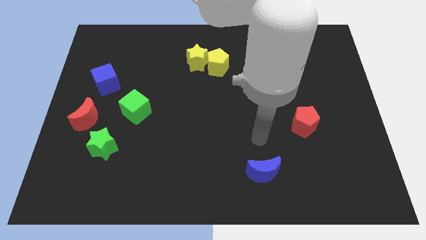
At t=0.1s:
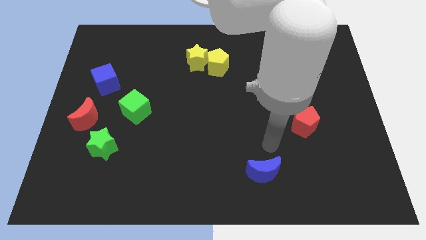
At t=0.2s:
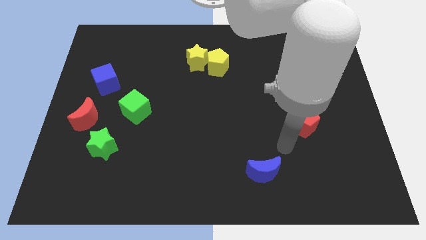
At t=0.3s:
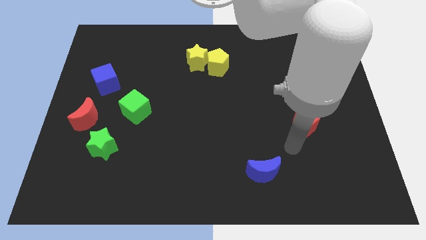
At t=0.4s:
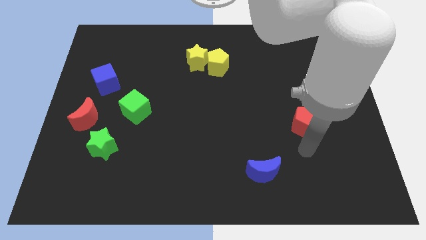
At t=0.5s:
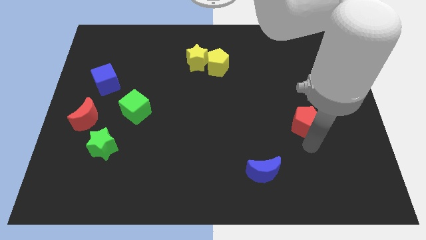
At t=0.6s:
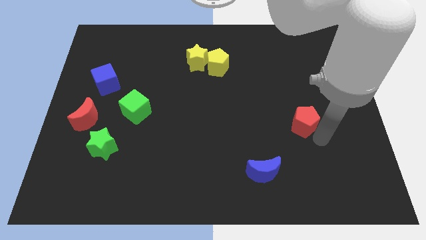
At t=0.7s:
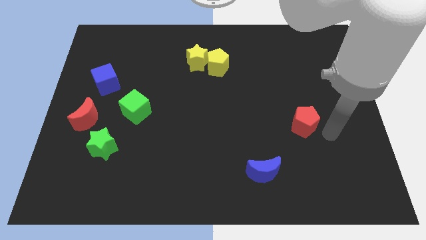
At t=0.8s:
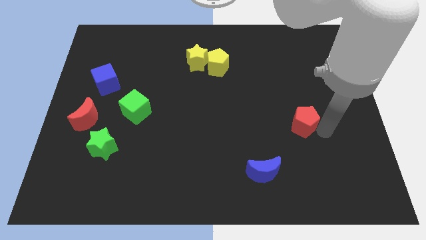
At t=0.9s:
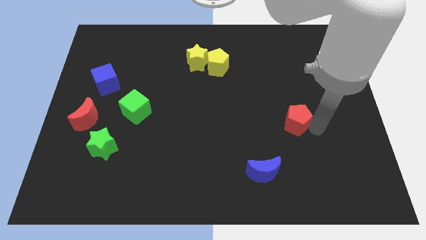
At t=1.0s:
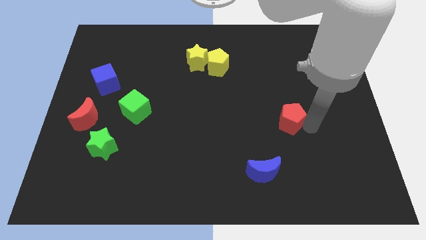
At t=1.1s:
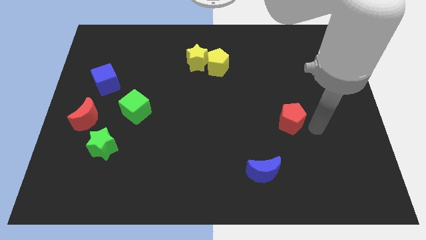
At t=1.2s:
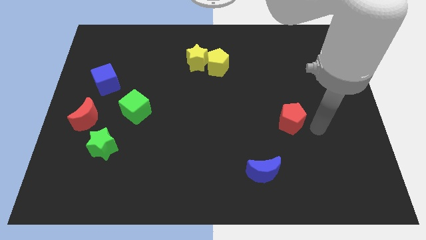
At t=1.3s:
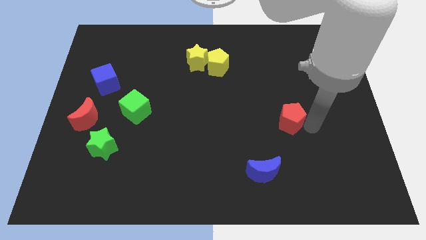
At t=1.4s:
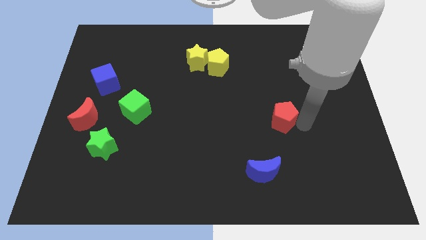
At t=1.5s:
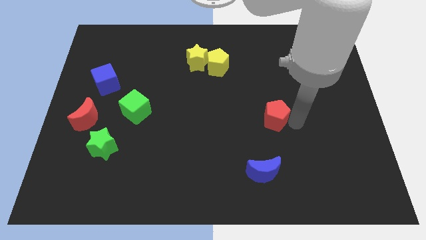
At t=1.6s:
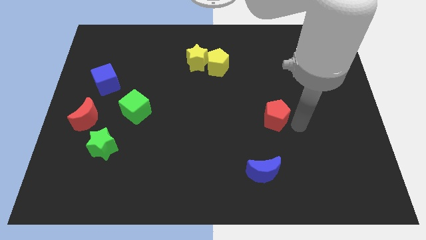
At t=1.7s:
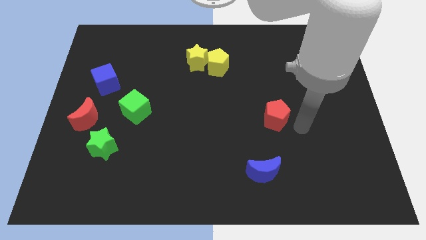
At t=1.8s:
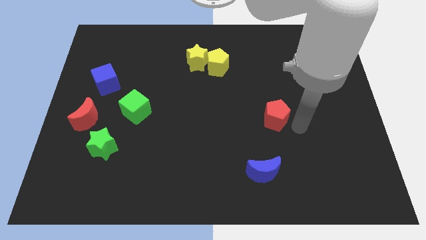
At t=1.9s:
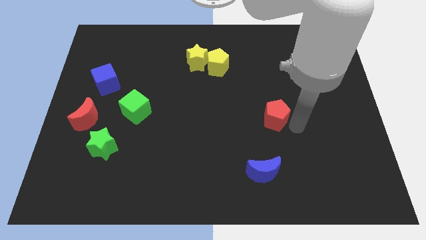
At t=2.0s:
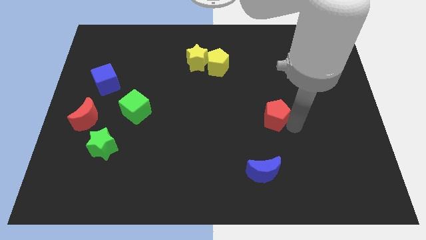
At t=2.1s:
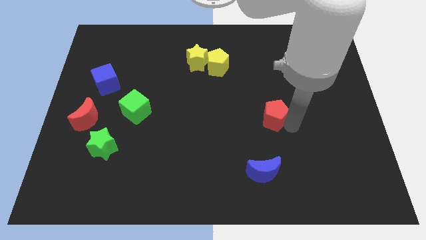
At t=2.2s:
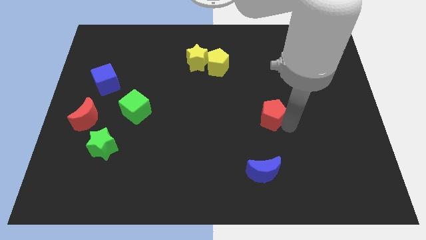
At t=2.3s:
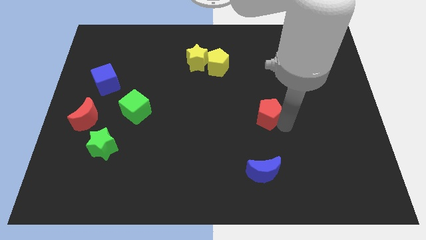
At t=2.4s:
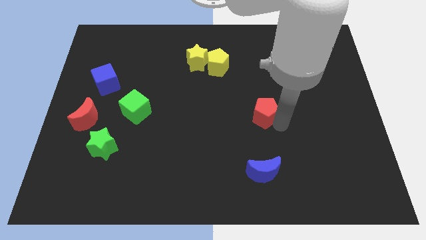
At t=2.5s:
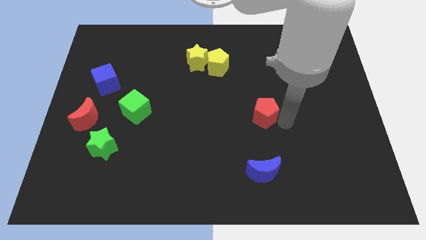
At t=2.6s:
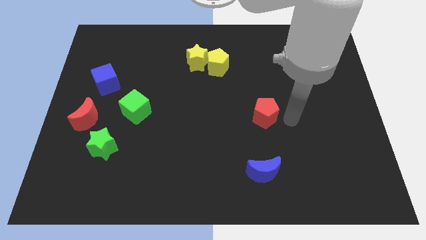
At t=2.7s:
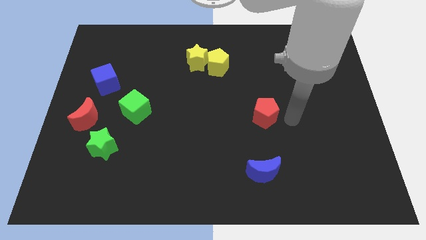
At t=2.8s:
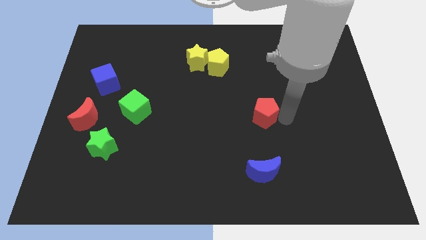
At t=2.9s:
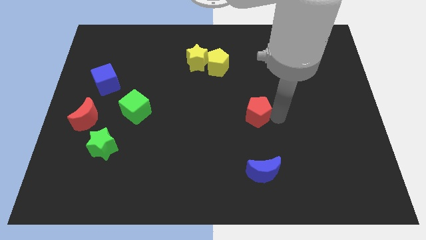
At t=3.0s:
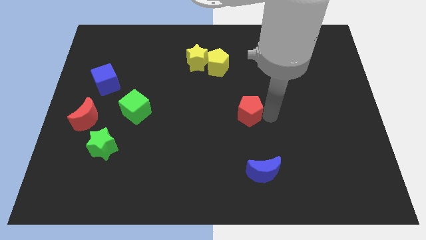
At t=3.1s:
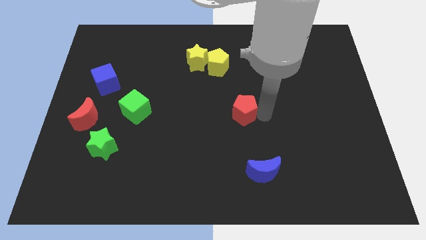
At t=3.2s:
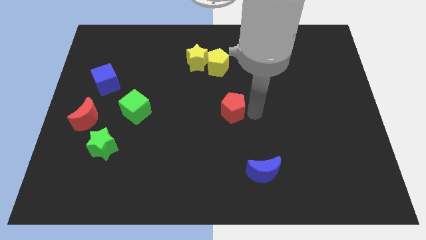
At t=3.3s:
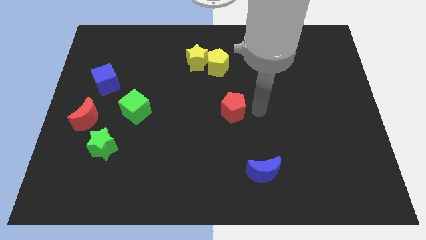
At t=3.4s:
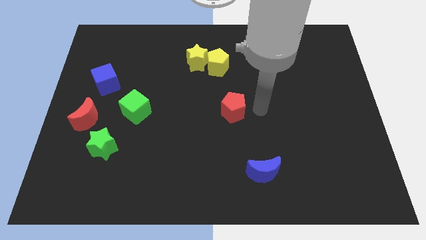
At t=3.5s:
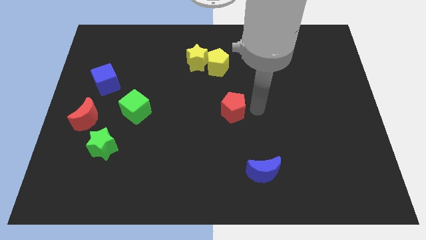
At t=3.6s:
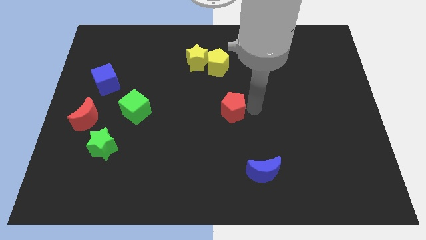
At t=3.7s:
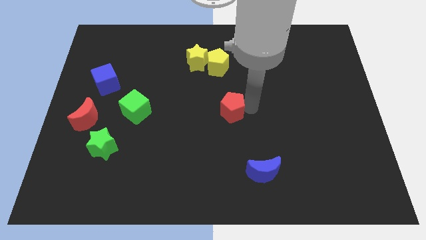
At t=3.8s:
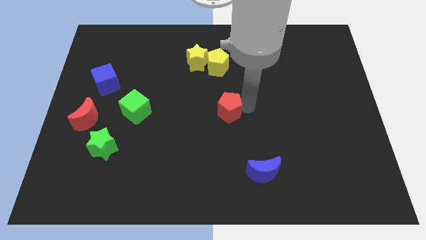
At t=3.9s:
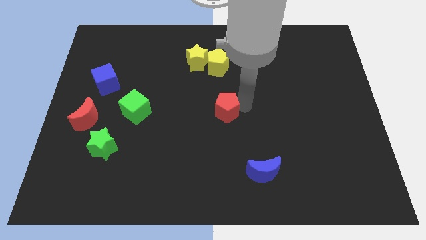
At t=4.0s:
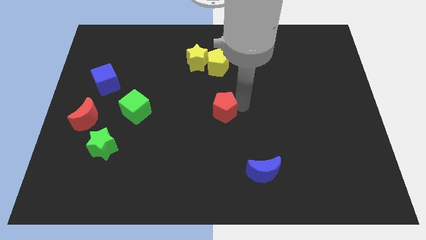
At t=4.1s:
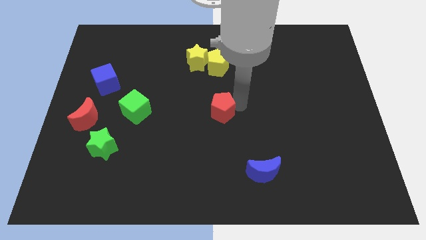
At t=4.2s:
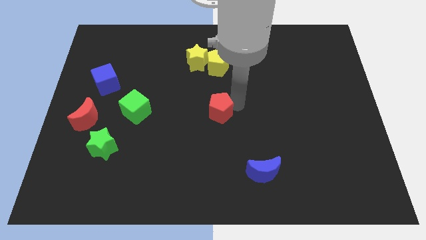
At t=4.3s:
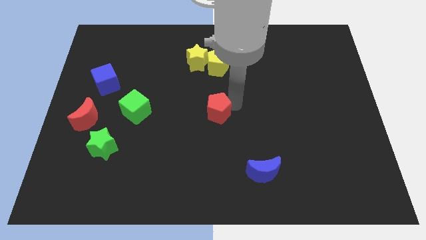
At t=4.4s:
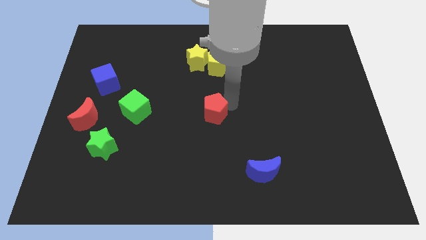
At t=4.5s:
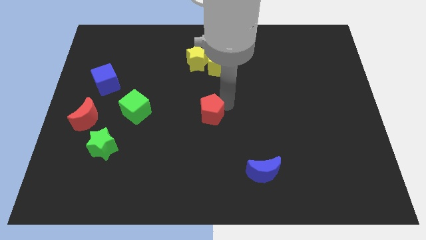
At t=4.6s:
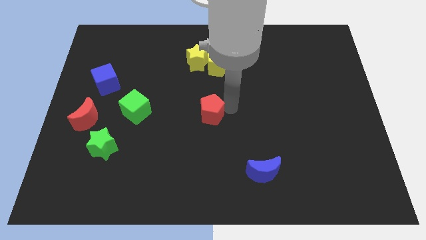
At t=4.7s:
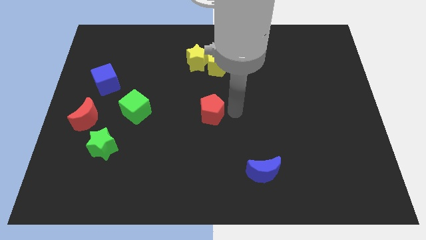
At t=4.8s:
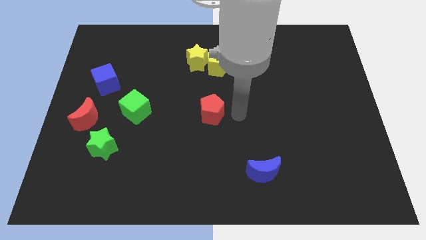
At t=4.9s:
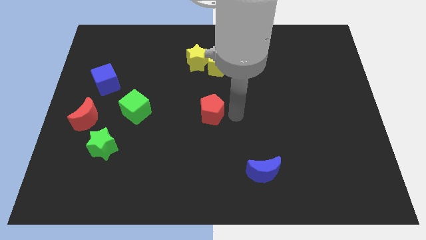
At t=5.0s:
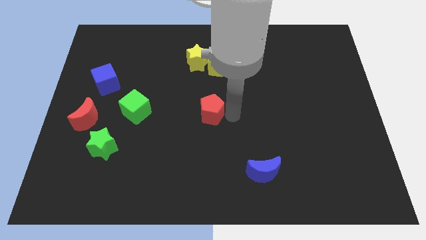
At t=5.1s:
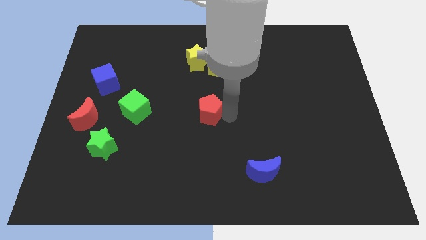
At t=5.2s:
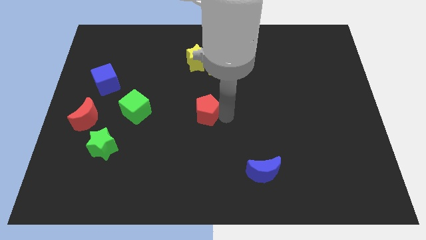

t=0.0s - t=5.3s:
slide the red pentagon to the right side of the green cube

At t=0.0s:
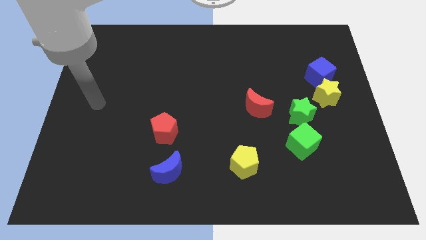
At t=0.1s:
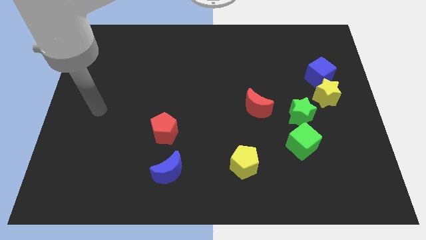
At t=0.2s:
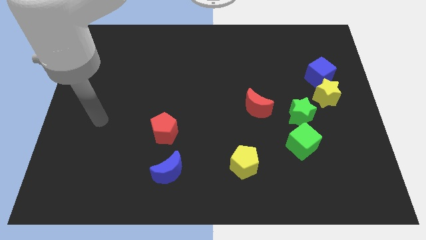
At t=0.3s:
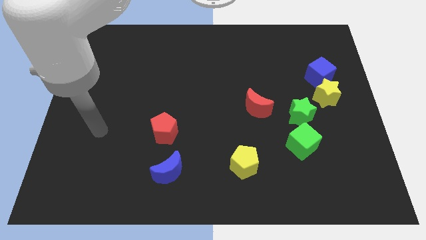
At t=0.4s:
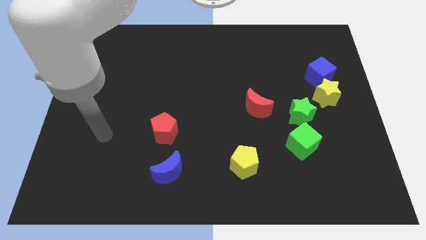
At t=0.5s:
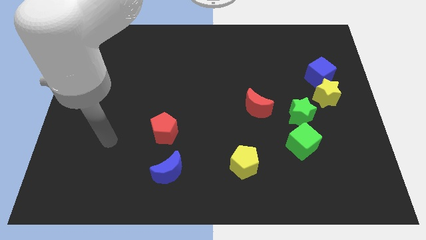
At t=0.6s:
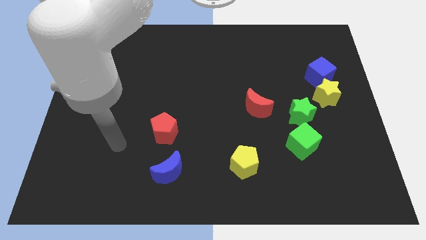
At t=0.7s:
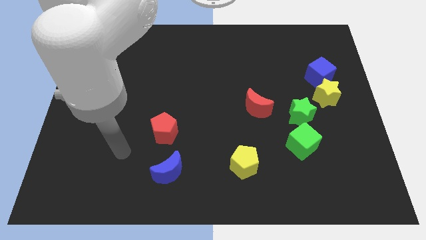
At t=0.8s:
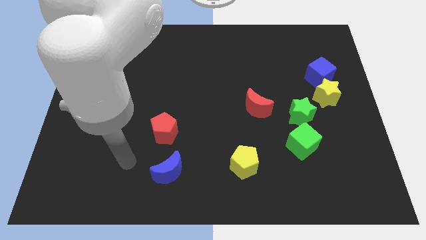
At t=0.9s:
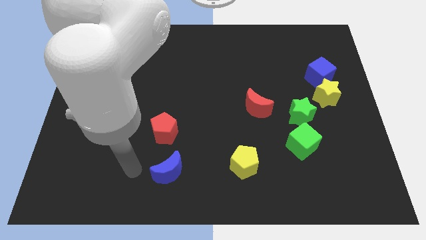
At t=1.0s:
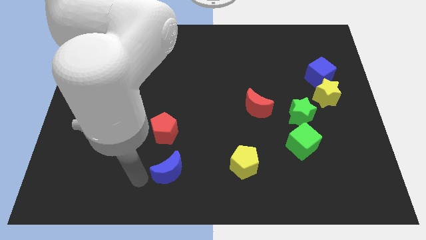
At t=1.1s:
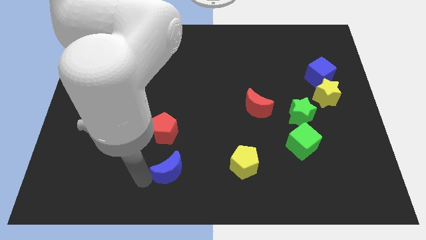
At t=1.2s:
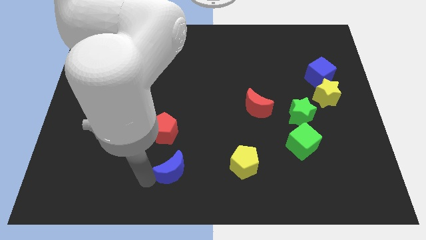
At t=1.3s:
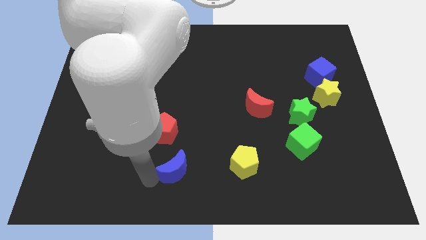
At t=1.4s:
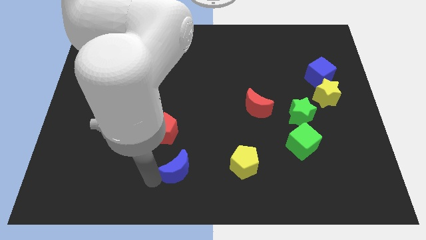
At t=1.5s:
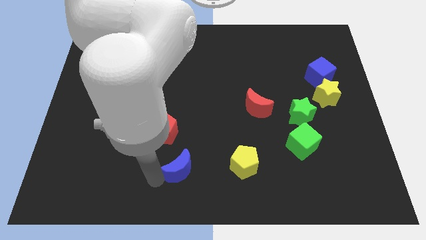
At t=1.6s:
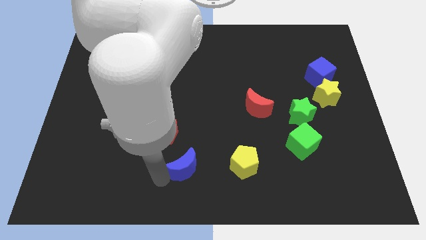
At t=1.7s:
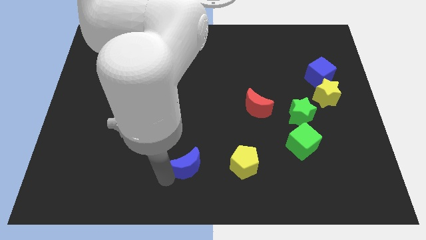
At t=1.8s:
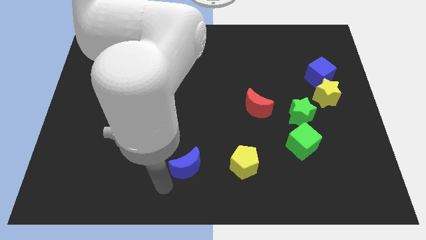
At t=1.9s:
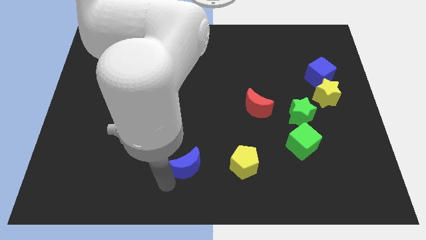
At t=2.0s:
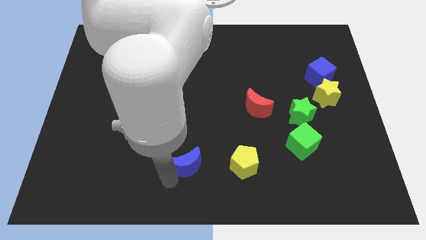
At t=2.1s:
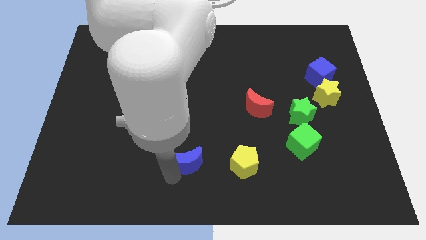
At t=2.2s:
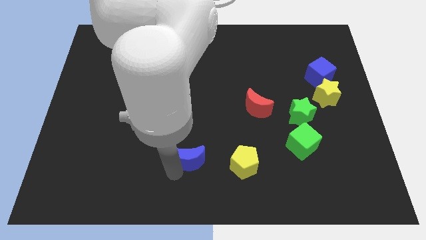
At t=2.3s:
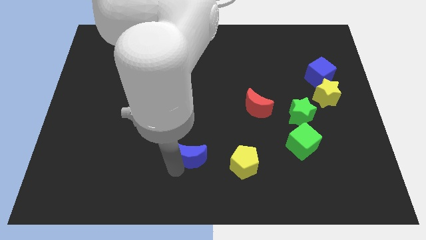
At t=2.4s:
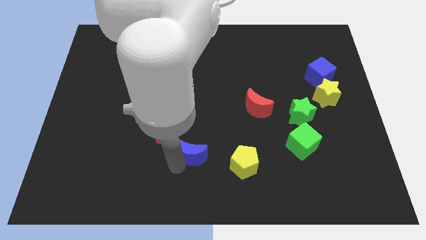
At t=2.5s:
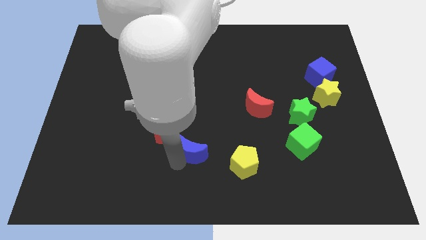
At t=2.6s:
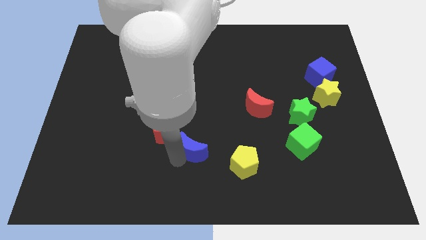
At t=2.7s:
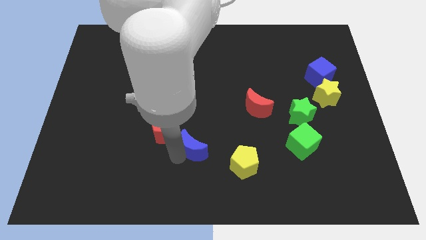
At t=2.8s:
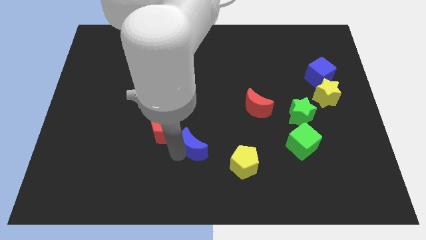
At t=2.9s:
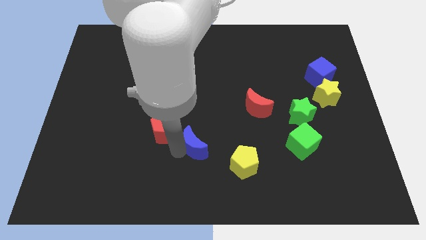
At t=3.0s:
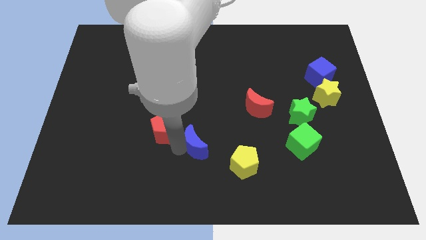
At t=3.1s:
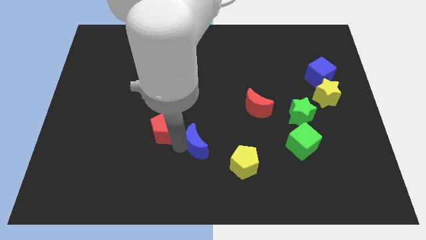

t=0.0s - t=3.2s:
slide the blue moon diagonally up and to the left of the yellow pentagon
